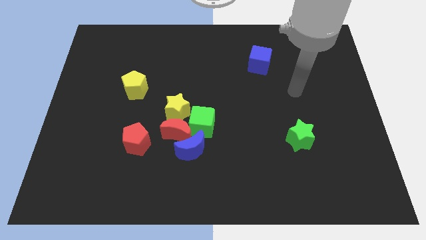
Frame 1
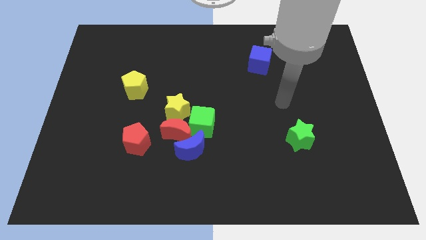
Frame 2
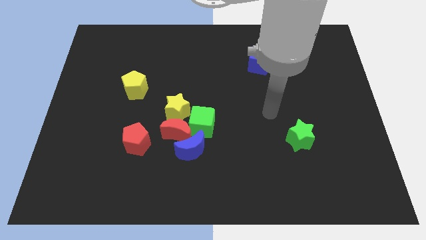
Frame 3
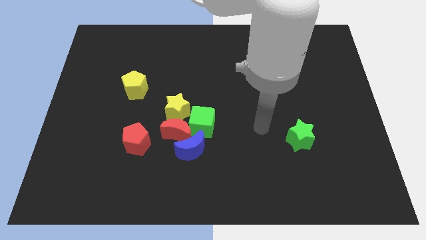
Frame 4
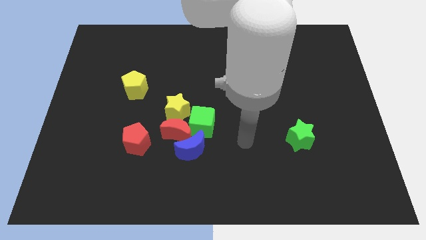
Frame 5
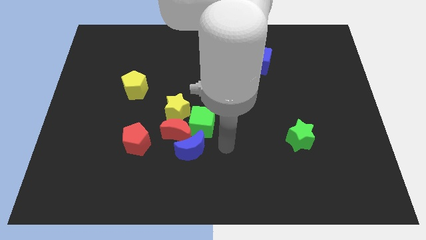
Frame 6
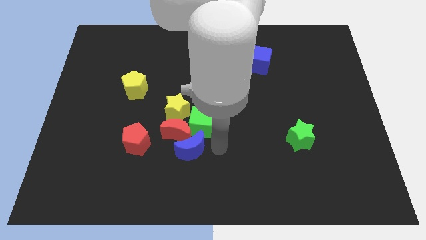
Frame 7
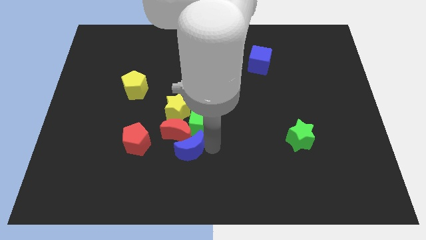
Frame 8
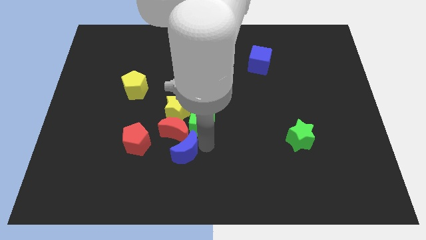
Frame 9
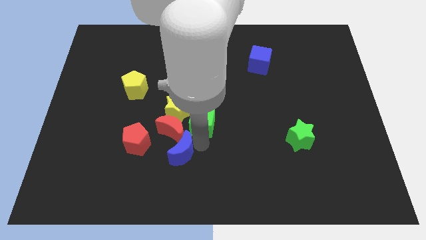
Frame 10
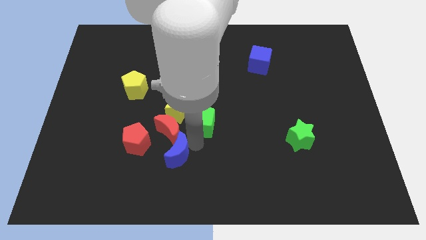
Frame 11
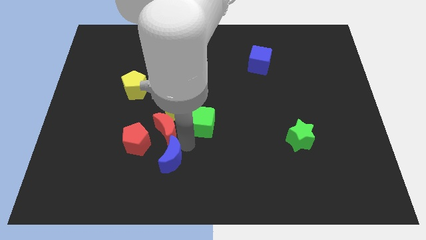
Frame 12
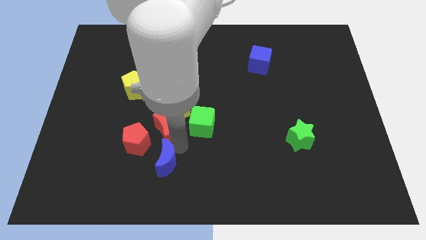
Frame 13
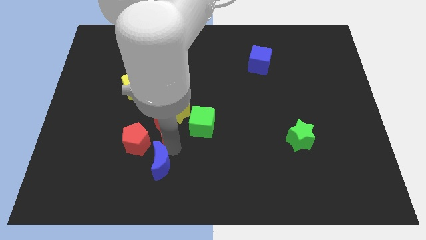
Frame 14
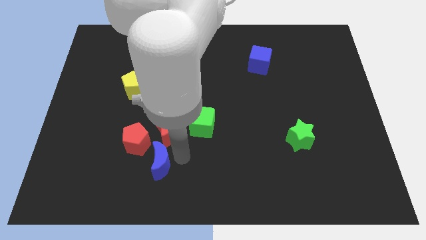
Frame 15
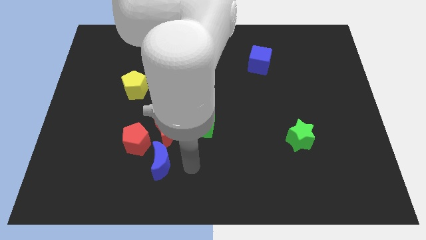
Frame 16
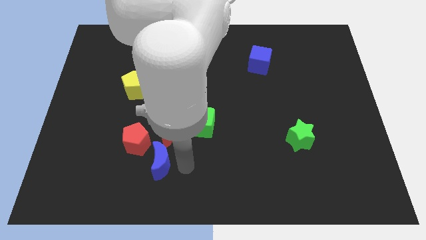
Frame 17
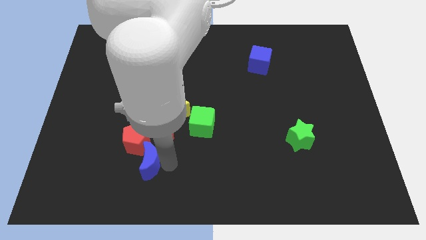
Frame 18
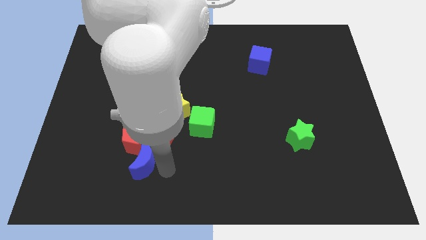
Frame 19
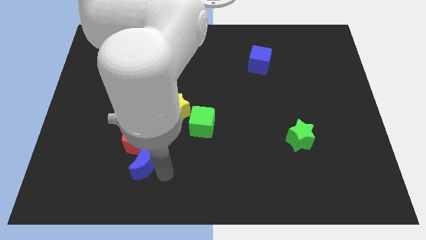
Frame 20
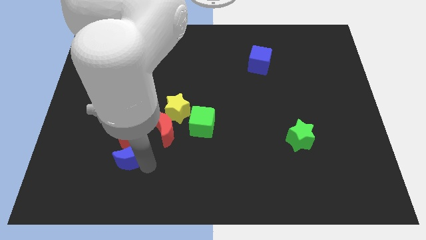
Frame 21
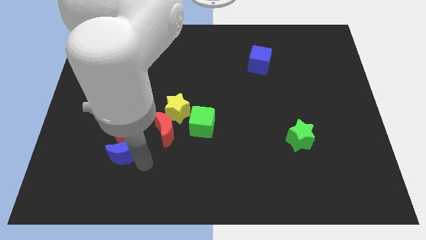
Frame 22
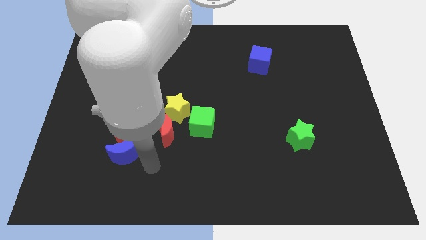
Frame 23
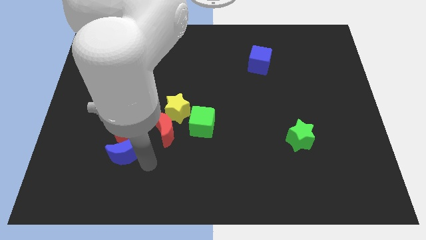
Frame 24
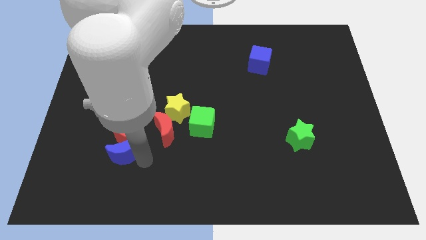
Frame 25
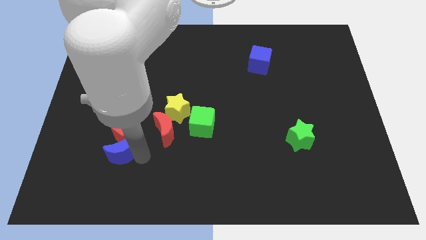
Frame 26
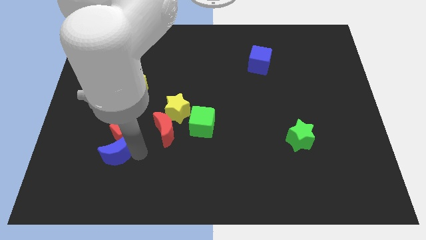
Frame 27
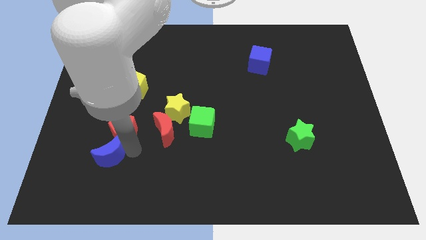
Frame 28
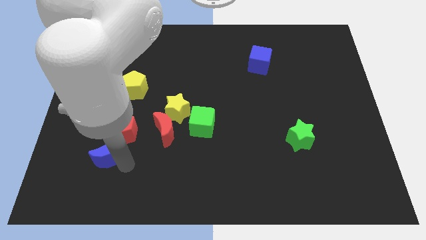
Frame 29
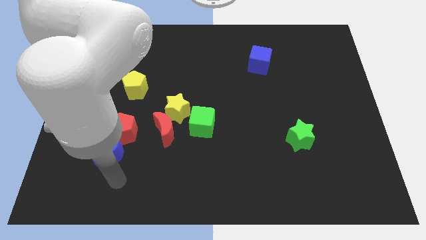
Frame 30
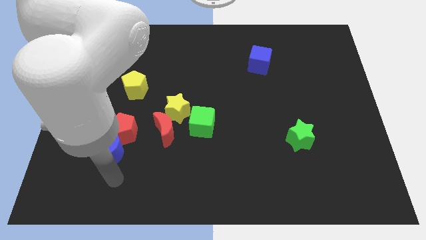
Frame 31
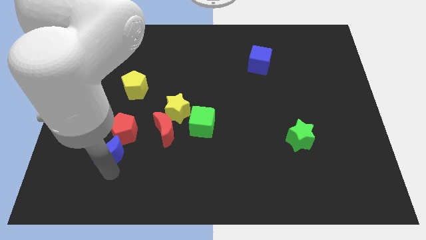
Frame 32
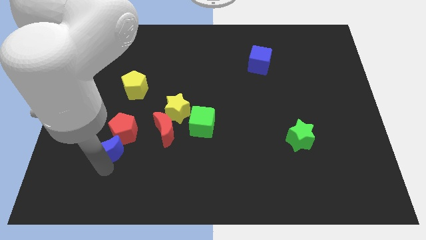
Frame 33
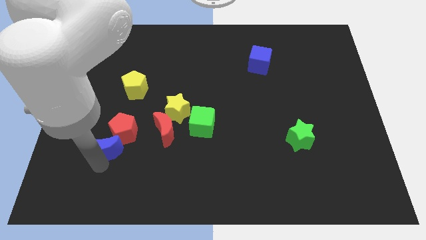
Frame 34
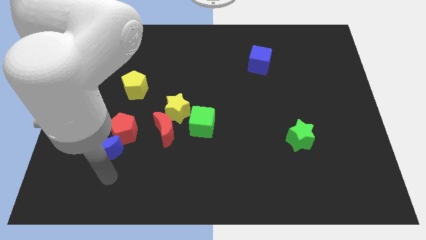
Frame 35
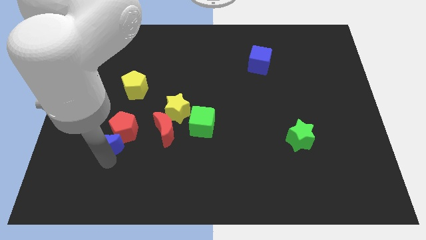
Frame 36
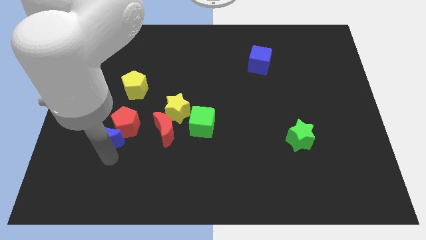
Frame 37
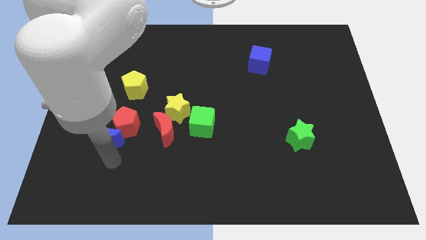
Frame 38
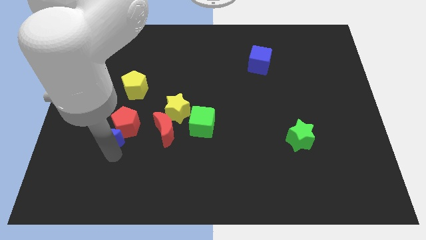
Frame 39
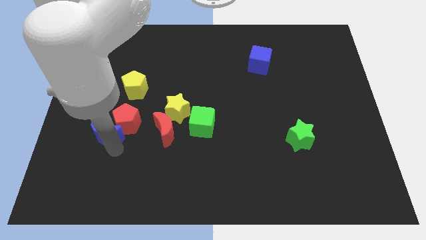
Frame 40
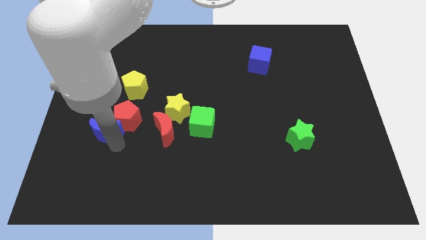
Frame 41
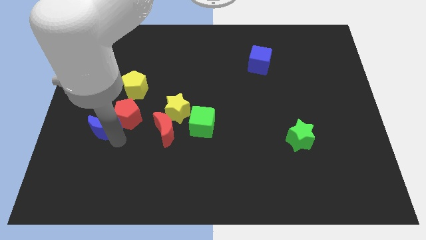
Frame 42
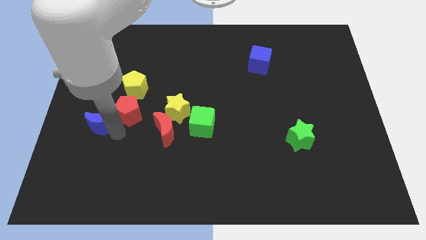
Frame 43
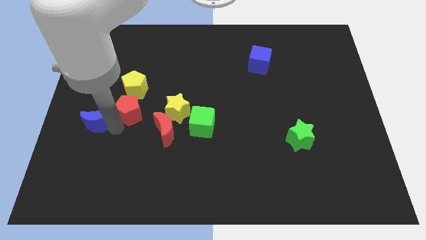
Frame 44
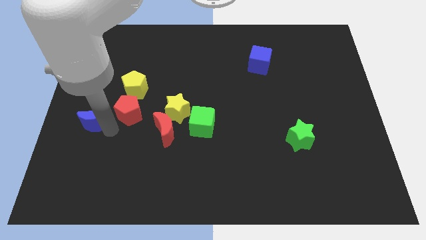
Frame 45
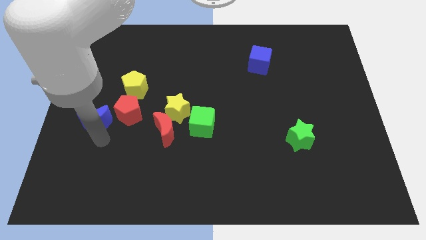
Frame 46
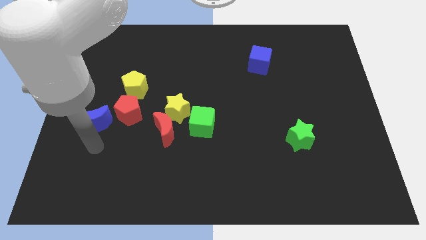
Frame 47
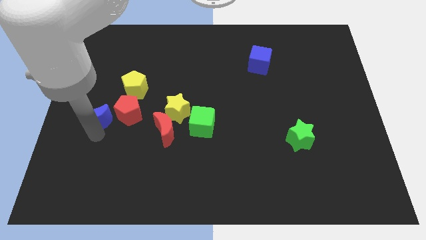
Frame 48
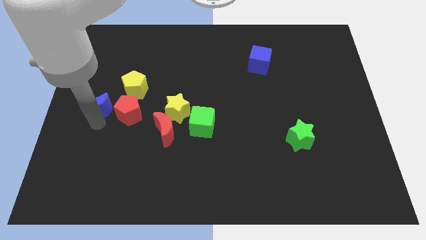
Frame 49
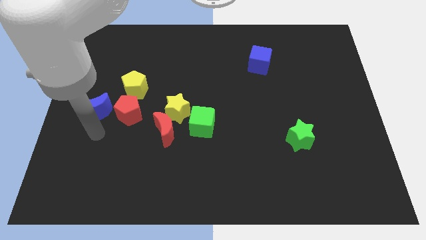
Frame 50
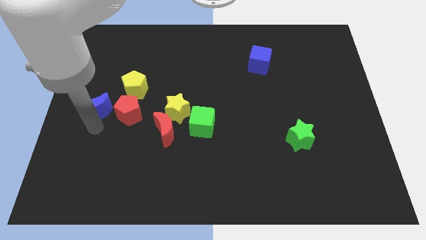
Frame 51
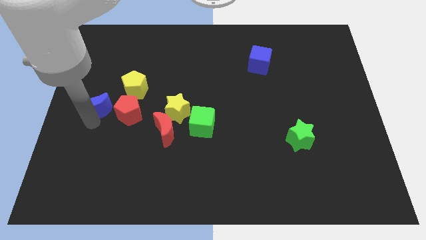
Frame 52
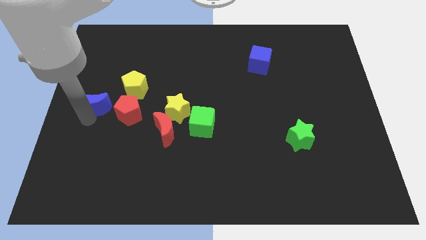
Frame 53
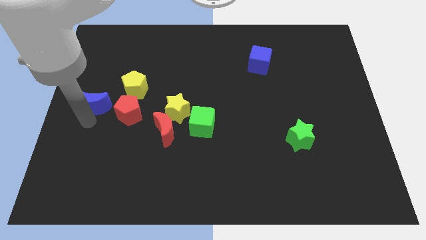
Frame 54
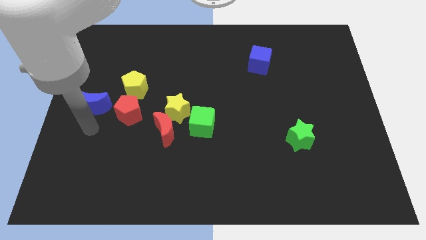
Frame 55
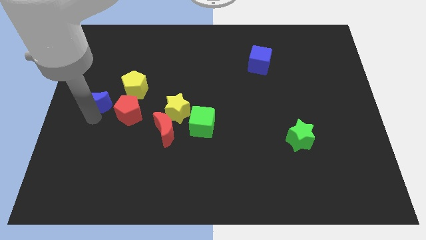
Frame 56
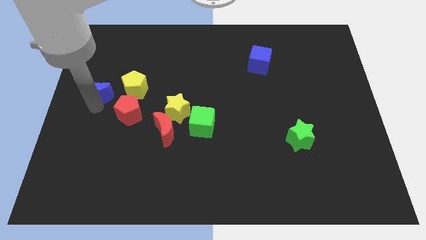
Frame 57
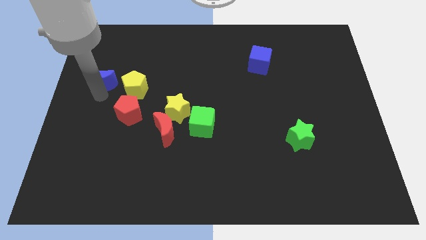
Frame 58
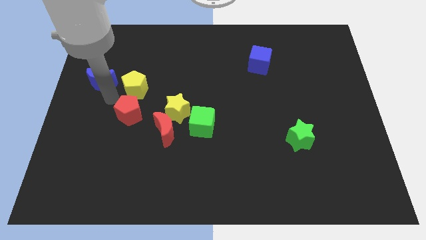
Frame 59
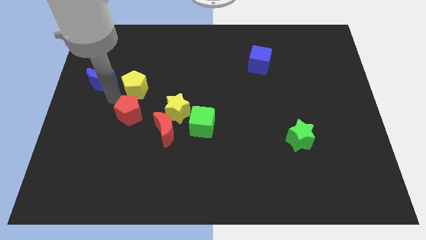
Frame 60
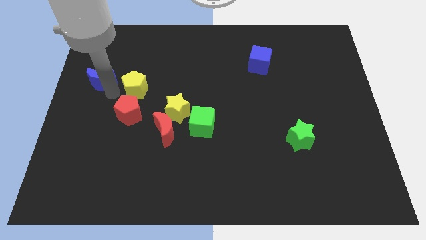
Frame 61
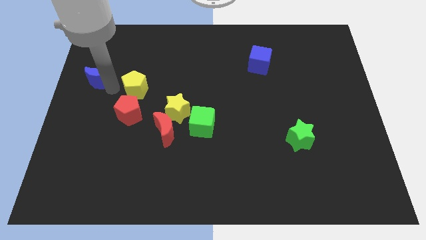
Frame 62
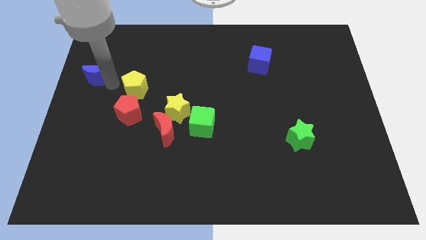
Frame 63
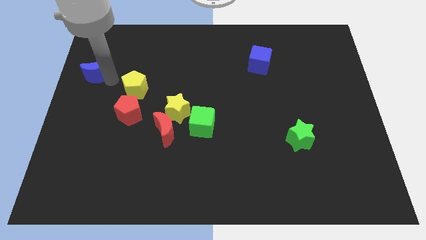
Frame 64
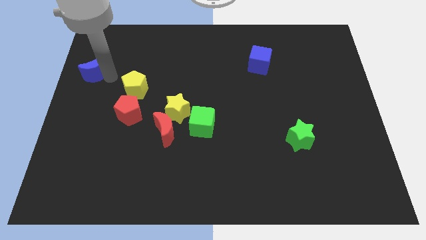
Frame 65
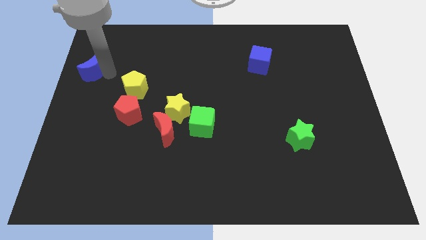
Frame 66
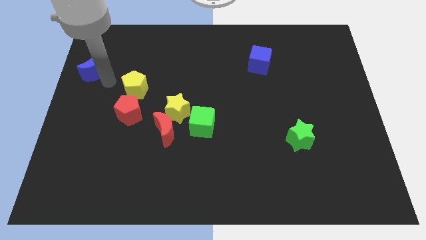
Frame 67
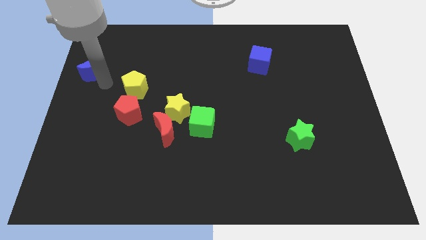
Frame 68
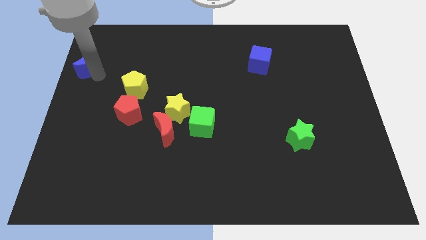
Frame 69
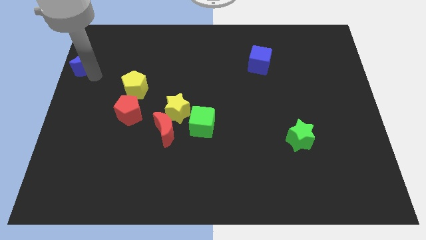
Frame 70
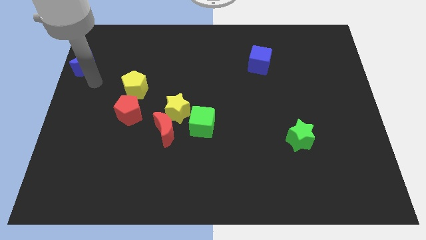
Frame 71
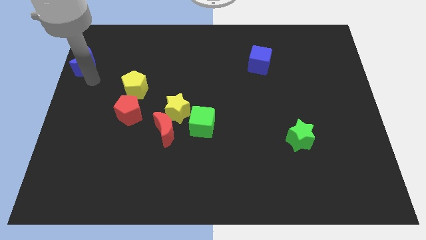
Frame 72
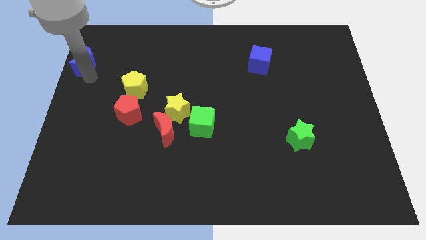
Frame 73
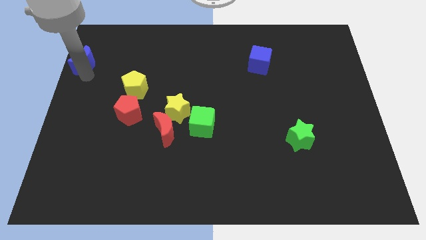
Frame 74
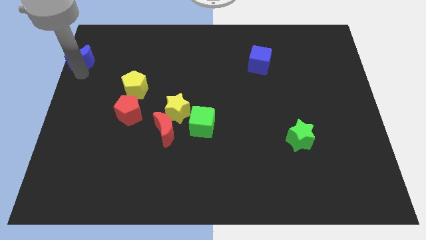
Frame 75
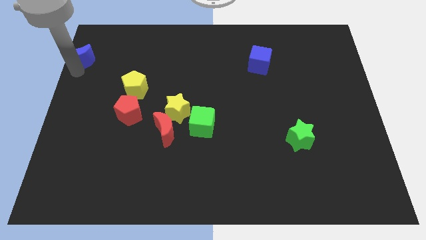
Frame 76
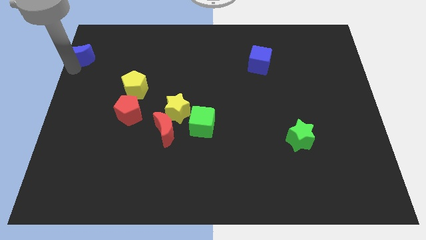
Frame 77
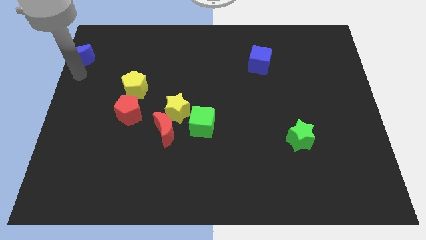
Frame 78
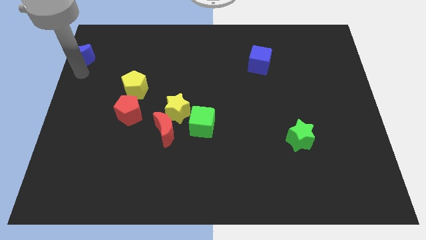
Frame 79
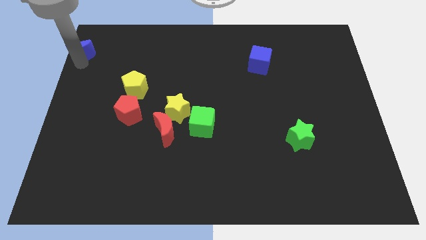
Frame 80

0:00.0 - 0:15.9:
put the blue moon to the top left
